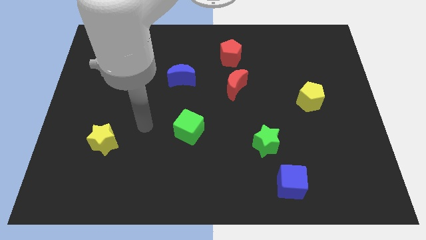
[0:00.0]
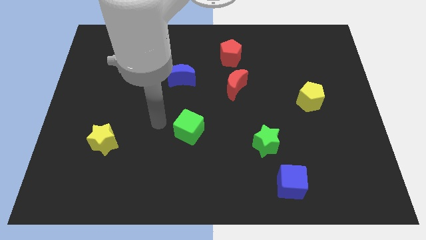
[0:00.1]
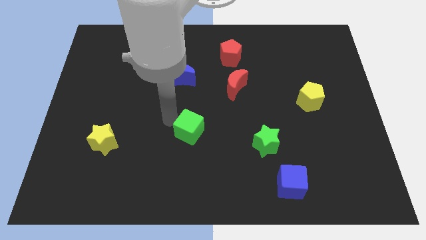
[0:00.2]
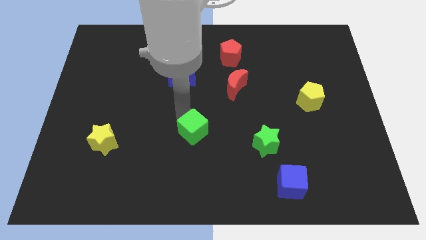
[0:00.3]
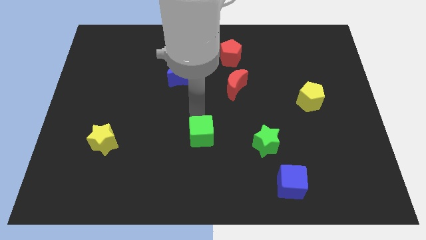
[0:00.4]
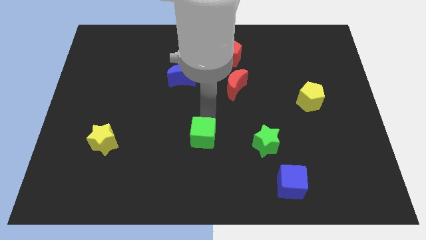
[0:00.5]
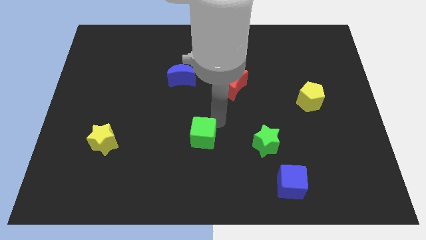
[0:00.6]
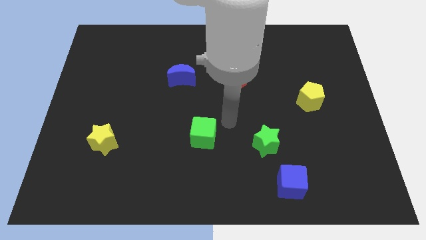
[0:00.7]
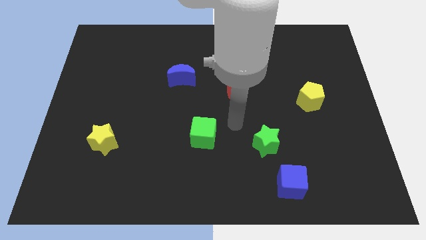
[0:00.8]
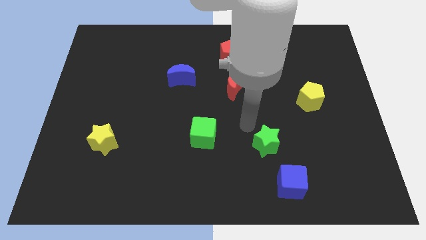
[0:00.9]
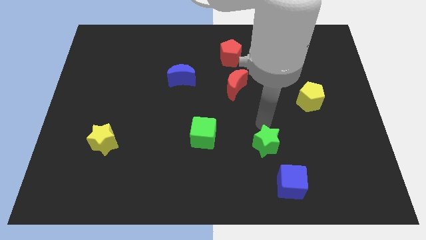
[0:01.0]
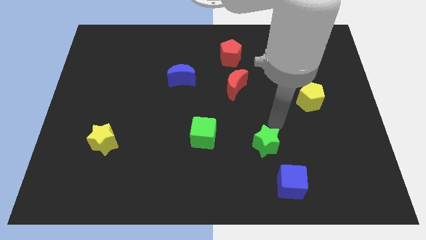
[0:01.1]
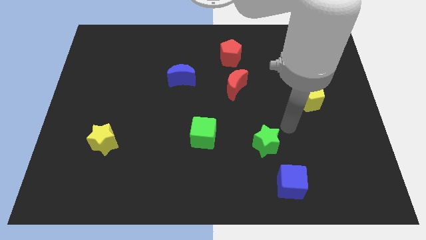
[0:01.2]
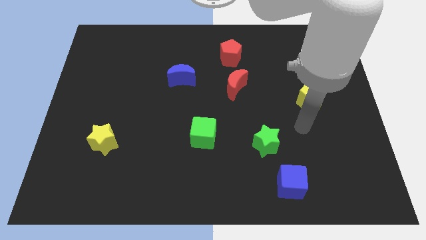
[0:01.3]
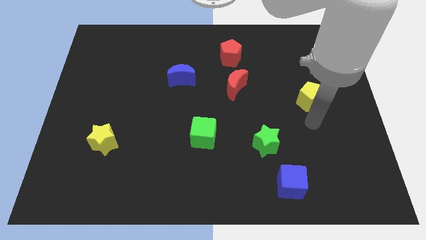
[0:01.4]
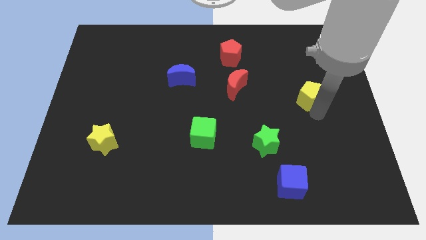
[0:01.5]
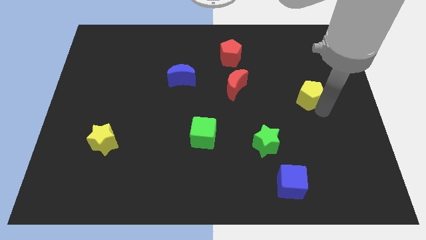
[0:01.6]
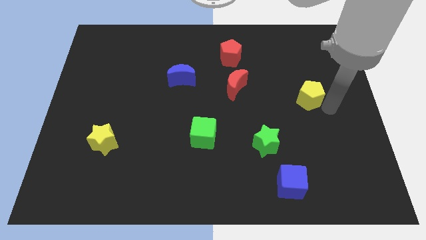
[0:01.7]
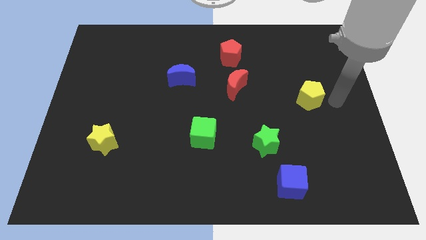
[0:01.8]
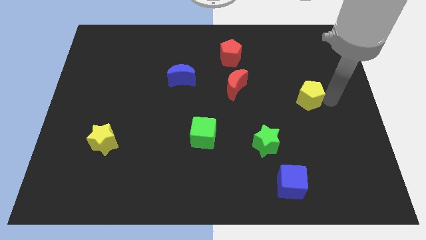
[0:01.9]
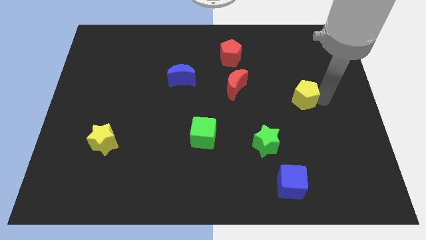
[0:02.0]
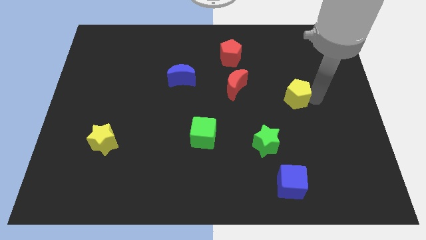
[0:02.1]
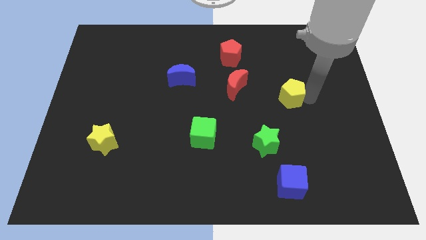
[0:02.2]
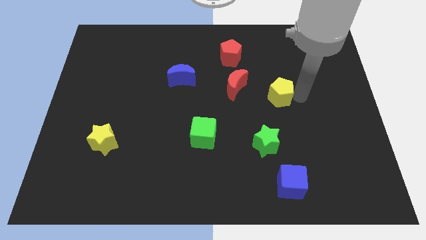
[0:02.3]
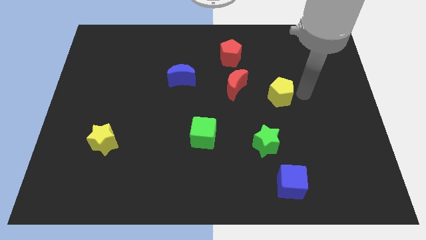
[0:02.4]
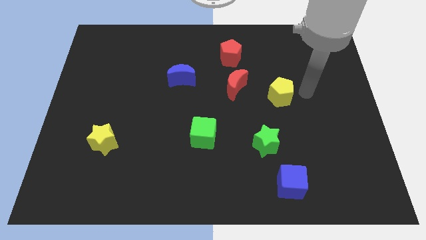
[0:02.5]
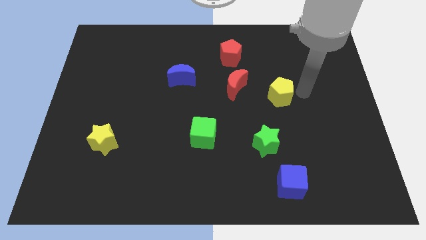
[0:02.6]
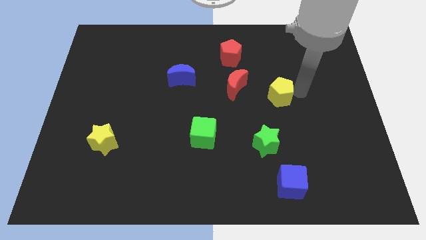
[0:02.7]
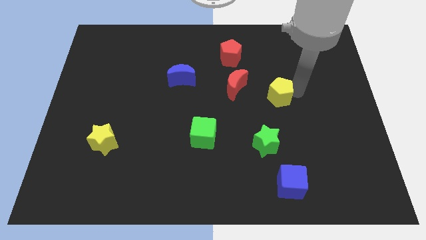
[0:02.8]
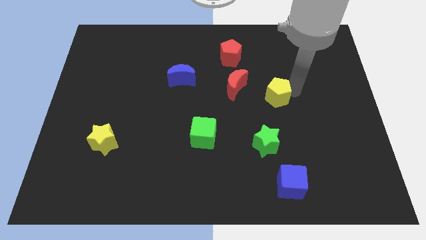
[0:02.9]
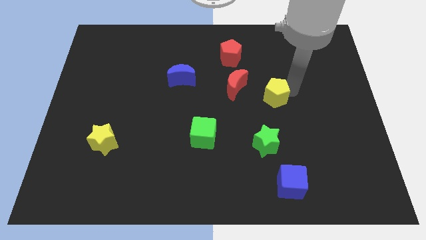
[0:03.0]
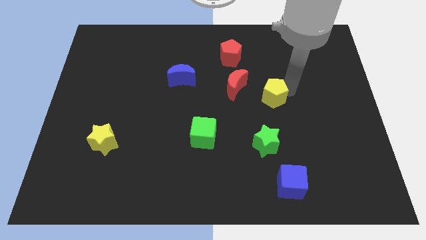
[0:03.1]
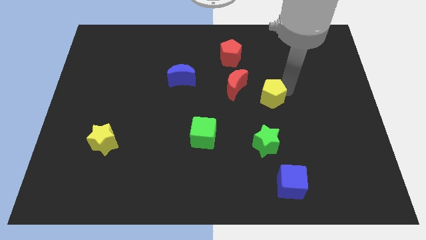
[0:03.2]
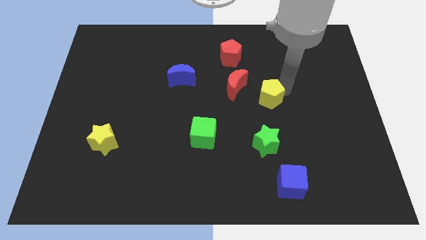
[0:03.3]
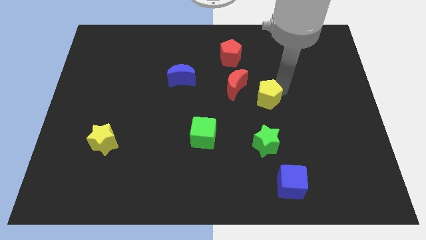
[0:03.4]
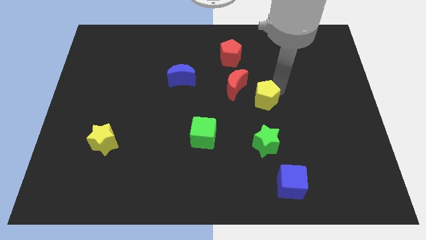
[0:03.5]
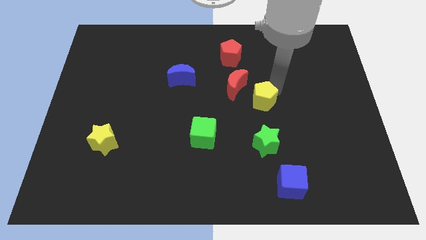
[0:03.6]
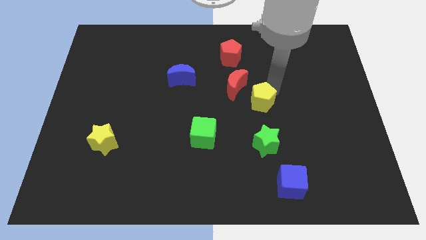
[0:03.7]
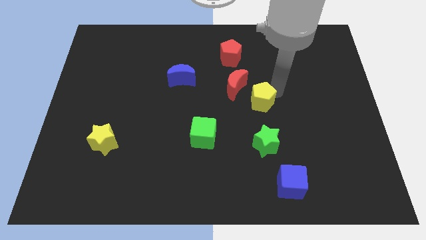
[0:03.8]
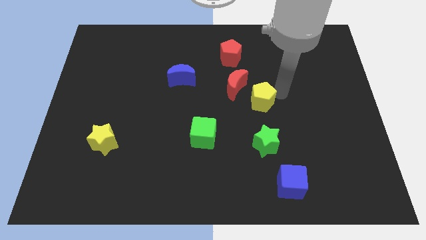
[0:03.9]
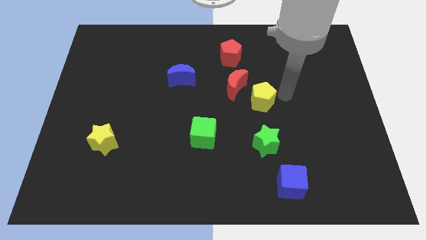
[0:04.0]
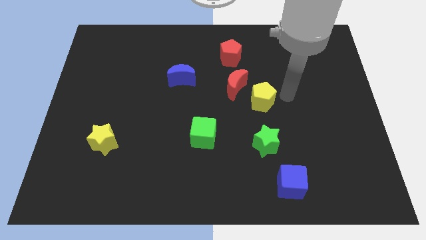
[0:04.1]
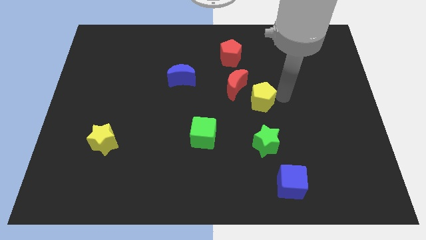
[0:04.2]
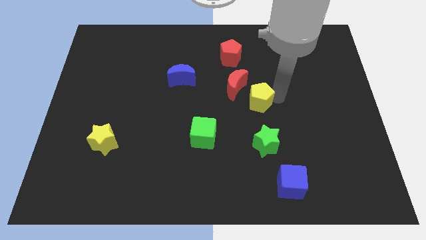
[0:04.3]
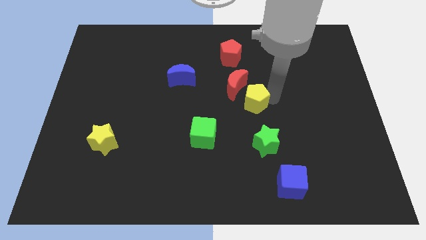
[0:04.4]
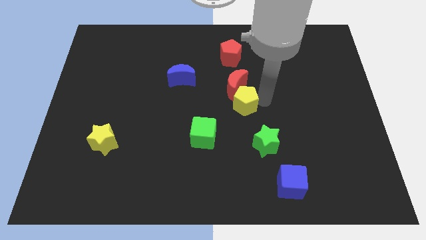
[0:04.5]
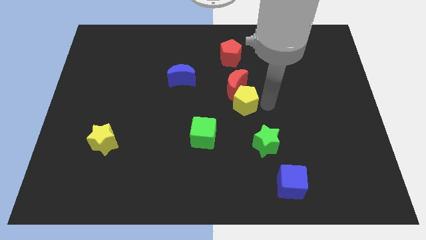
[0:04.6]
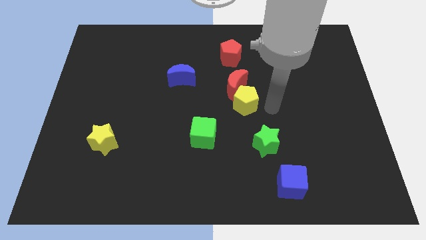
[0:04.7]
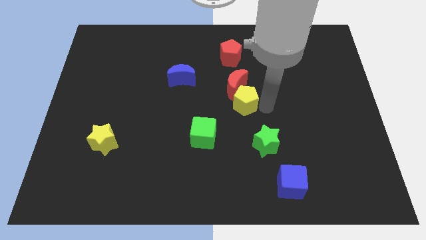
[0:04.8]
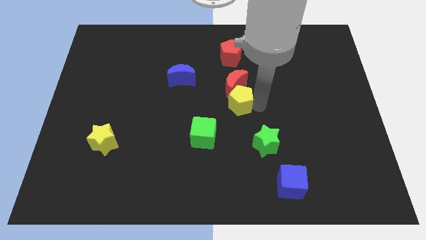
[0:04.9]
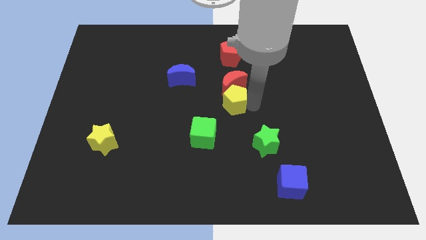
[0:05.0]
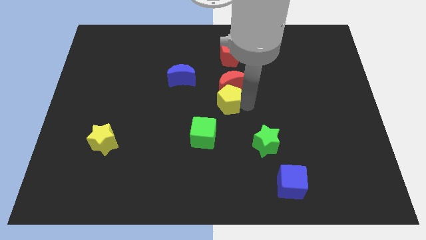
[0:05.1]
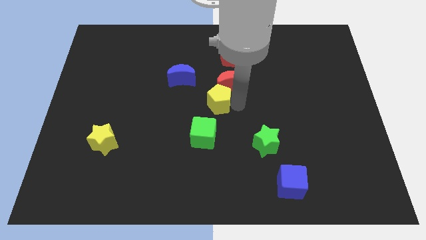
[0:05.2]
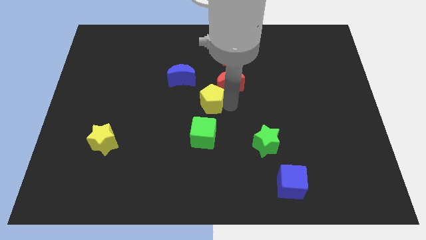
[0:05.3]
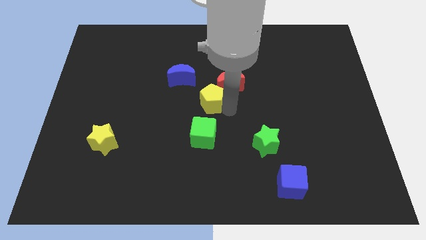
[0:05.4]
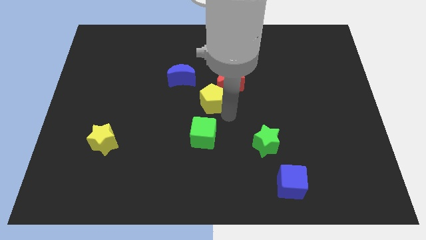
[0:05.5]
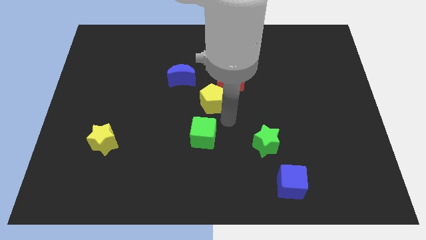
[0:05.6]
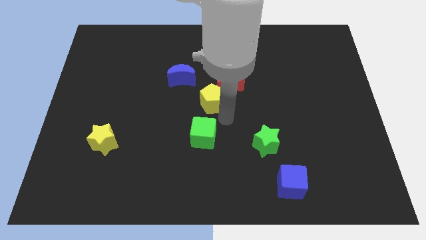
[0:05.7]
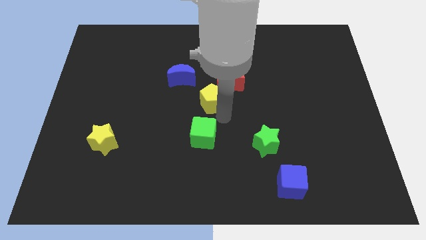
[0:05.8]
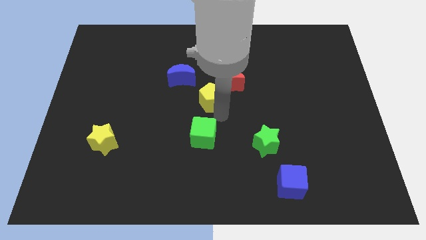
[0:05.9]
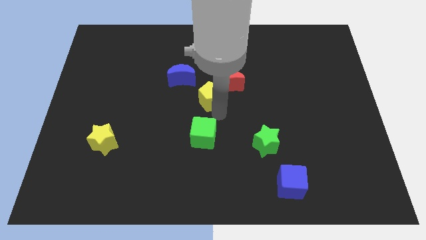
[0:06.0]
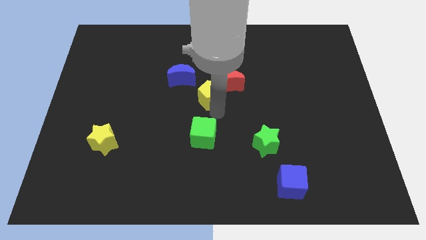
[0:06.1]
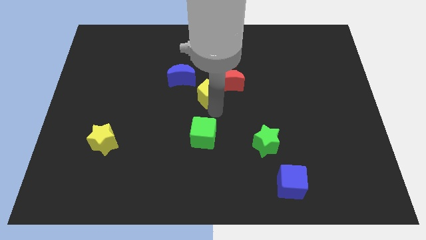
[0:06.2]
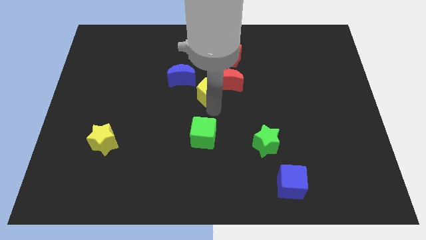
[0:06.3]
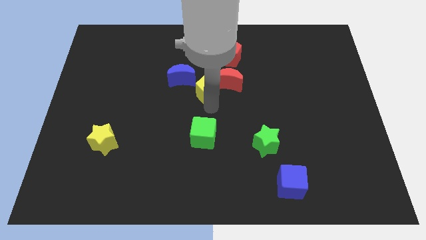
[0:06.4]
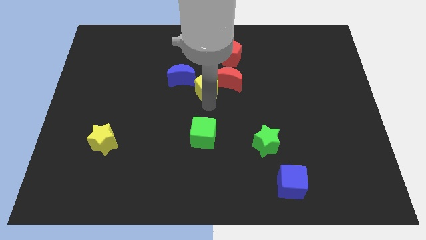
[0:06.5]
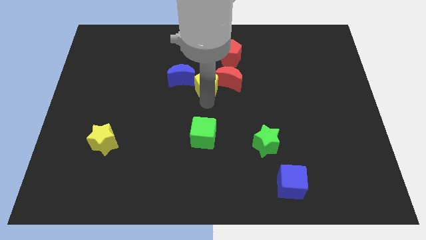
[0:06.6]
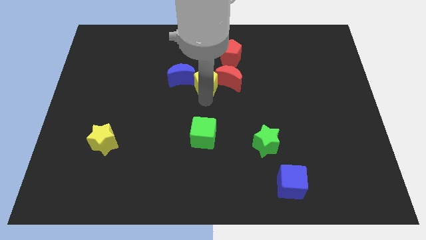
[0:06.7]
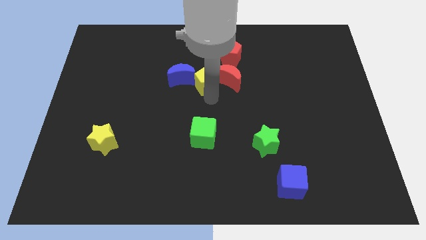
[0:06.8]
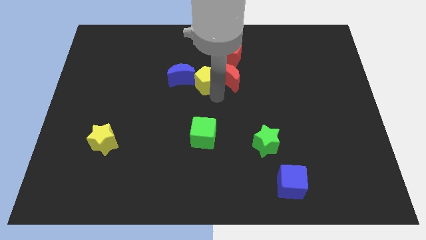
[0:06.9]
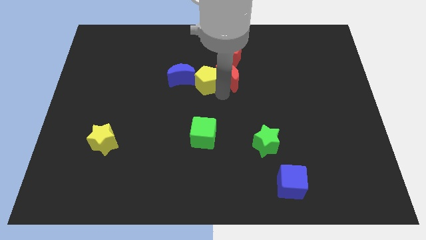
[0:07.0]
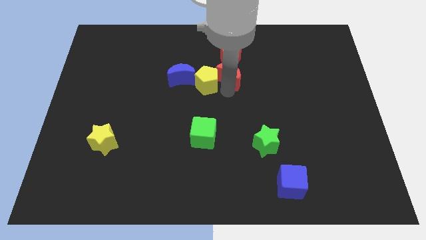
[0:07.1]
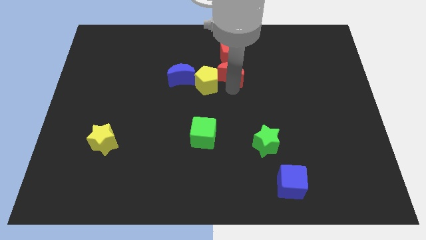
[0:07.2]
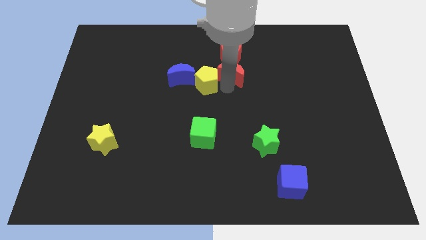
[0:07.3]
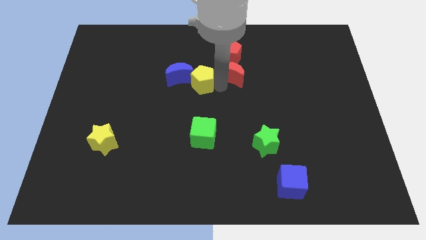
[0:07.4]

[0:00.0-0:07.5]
push the yellow pentagon towards the blue moon

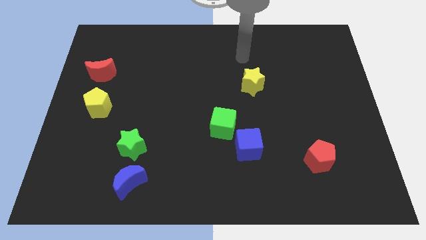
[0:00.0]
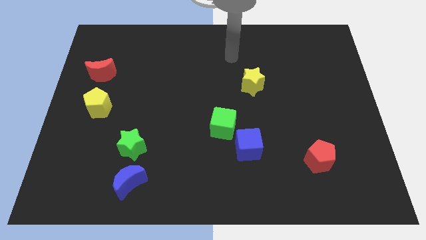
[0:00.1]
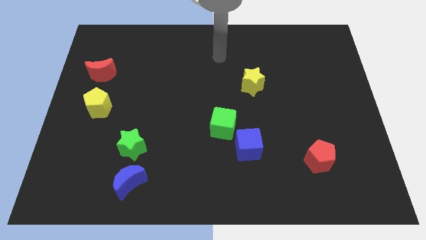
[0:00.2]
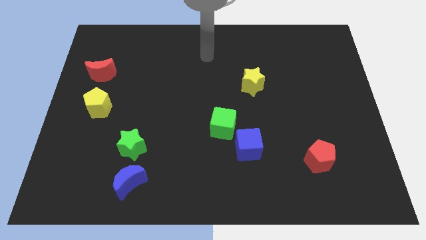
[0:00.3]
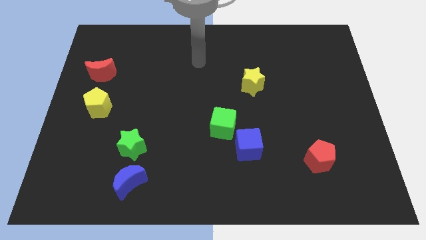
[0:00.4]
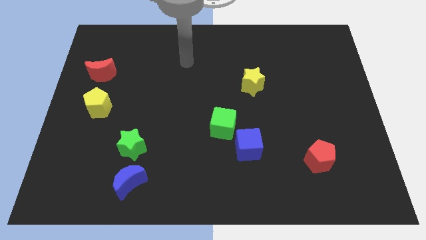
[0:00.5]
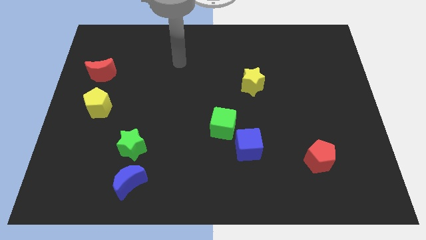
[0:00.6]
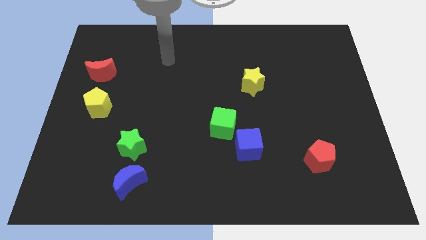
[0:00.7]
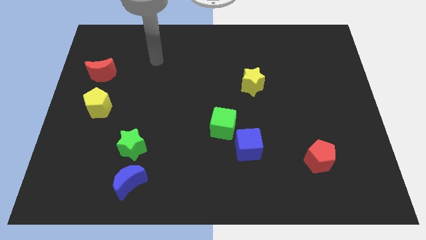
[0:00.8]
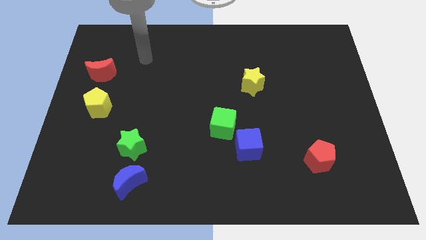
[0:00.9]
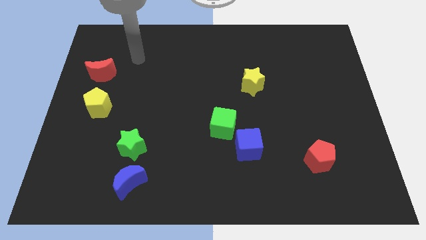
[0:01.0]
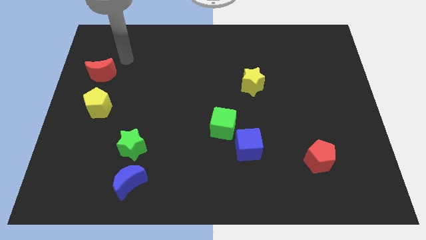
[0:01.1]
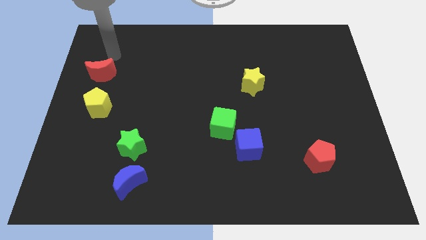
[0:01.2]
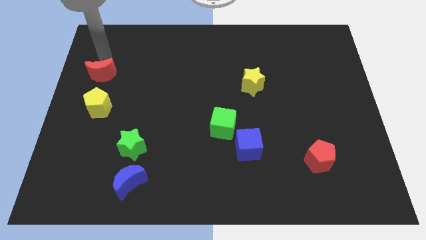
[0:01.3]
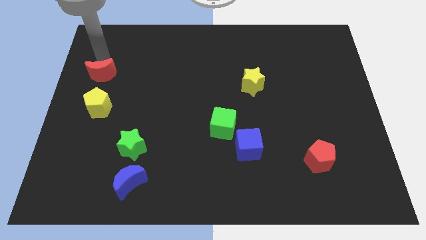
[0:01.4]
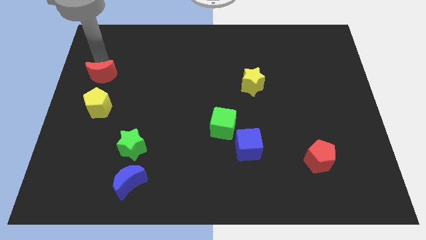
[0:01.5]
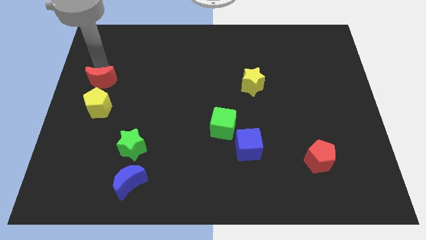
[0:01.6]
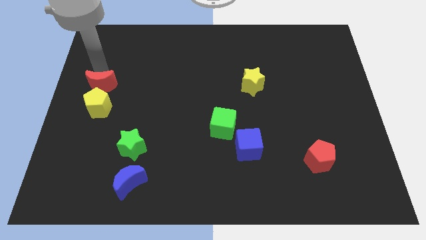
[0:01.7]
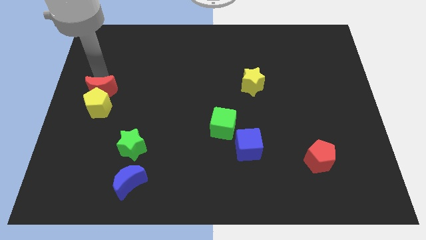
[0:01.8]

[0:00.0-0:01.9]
put the red moon next to the yellow pentagon
